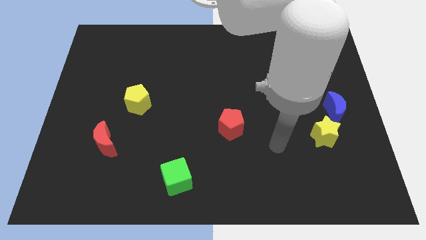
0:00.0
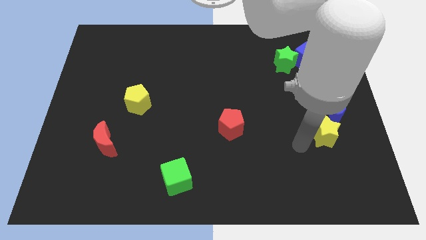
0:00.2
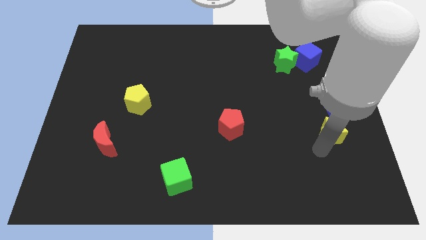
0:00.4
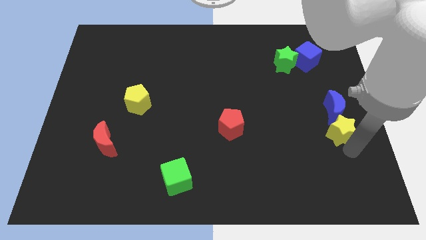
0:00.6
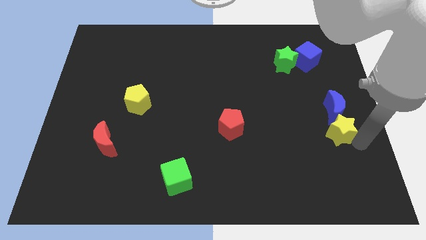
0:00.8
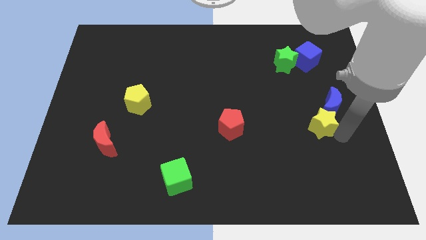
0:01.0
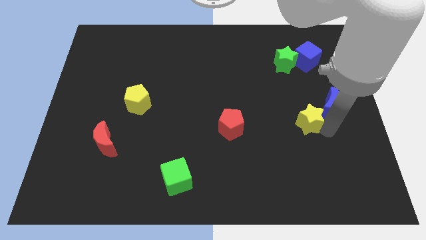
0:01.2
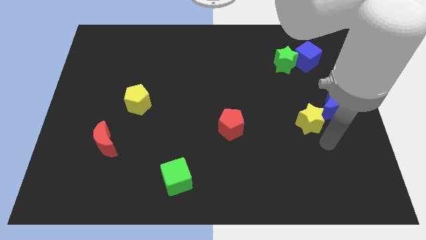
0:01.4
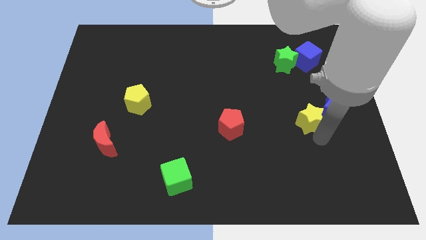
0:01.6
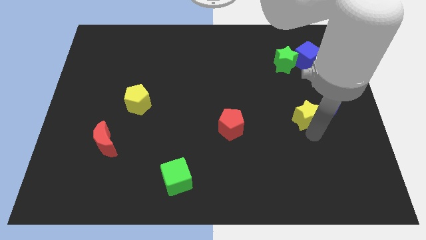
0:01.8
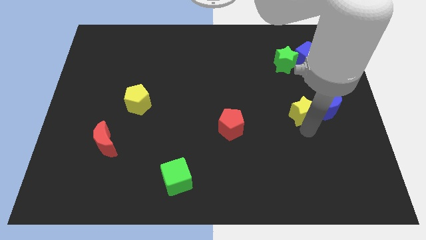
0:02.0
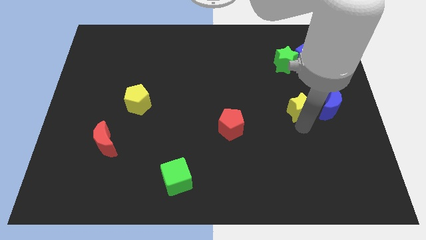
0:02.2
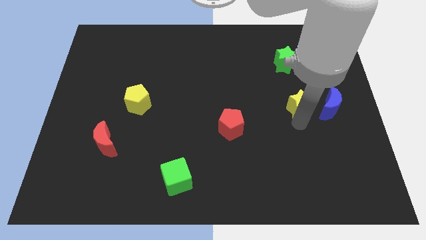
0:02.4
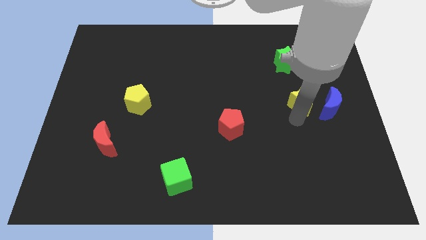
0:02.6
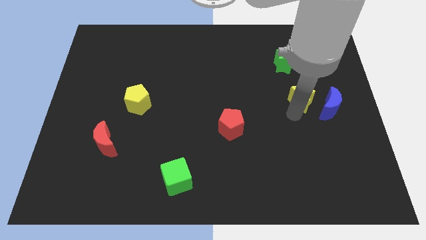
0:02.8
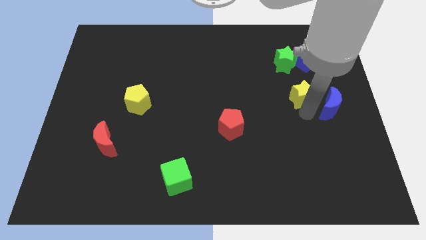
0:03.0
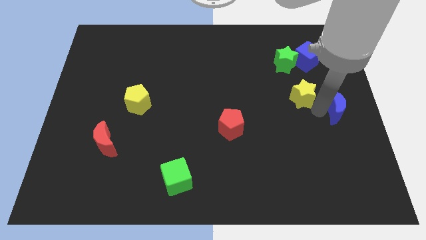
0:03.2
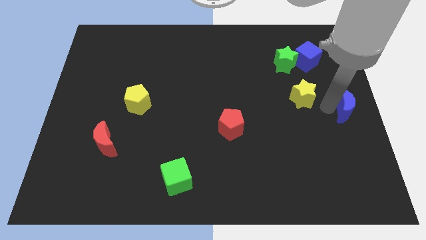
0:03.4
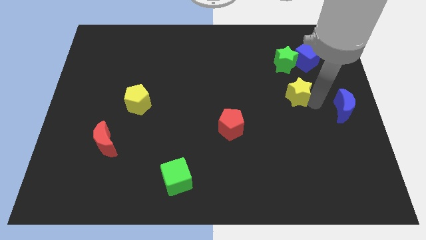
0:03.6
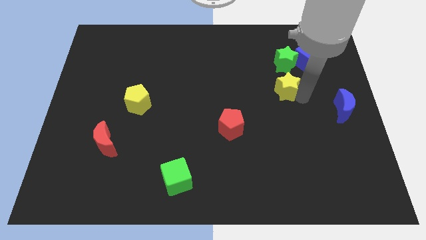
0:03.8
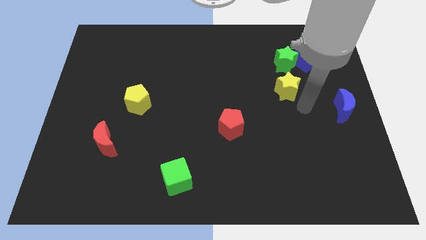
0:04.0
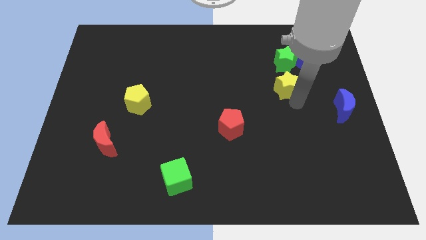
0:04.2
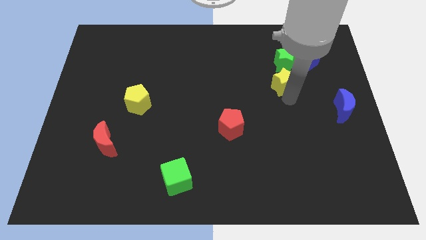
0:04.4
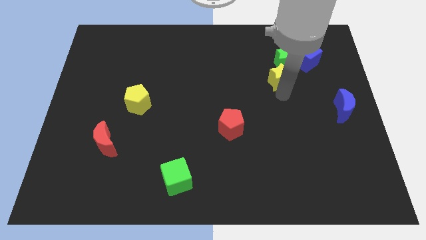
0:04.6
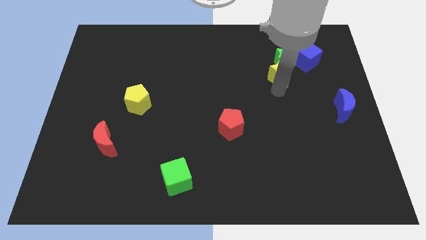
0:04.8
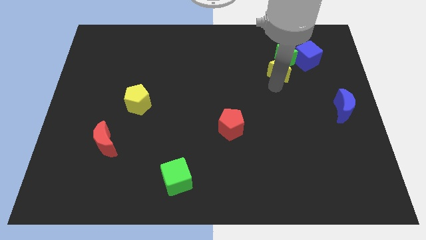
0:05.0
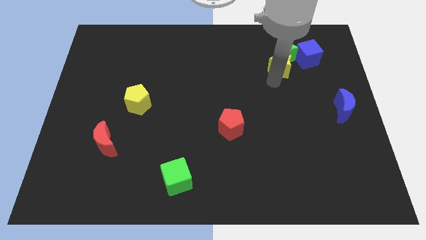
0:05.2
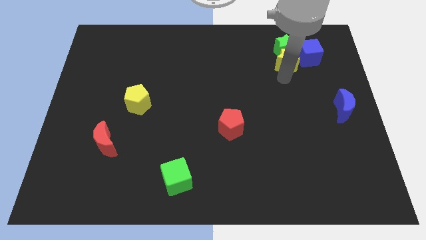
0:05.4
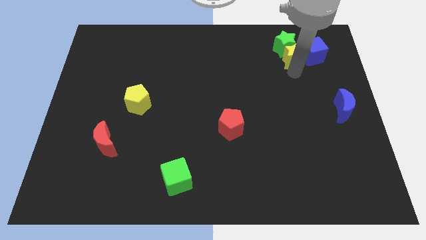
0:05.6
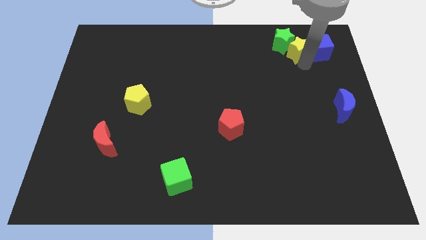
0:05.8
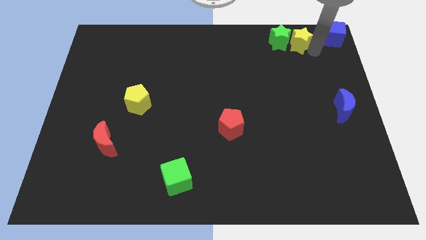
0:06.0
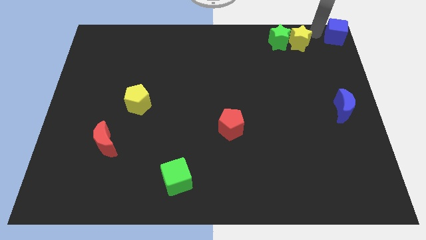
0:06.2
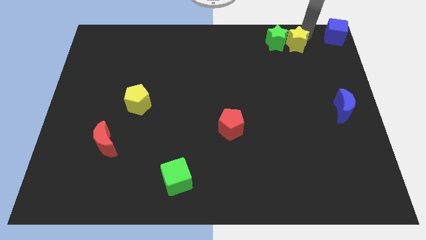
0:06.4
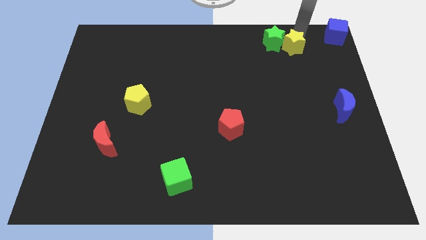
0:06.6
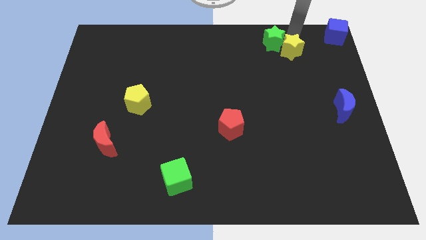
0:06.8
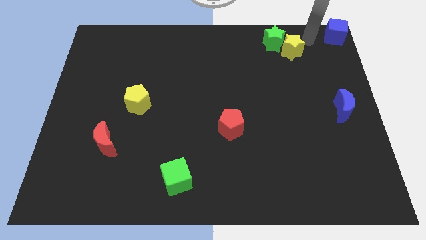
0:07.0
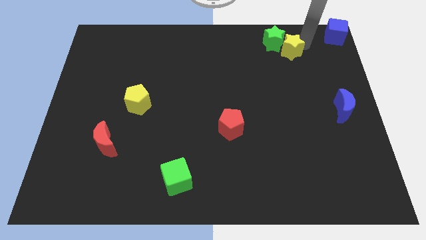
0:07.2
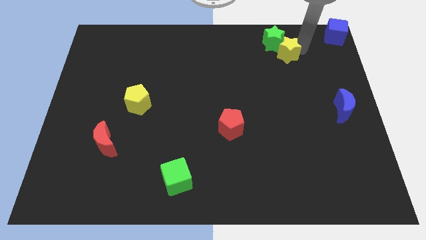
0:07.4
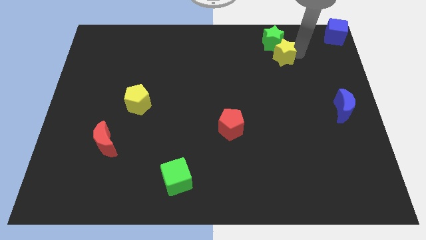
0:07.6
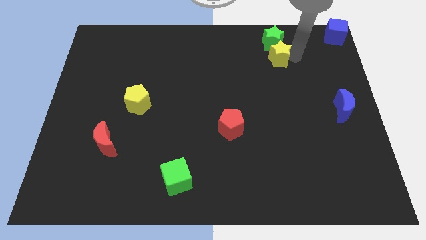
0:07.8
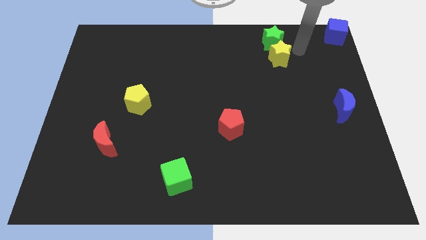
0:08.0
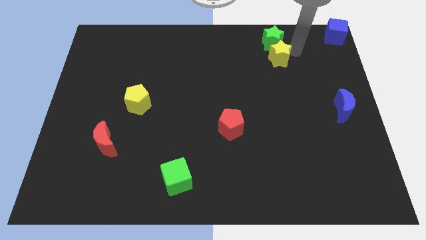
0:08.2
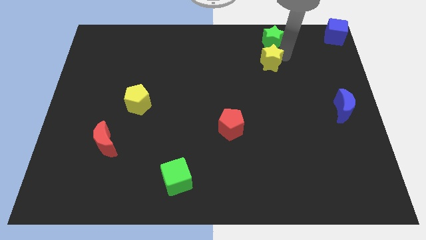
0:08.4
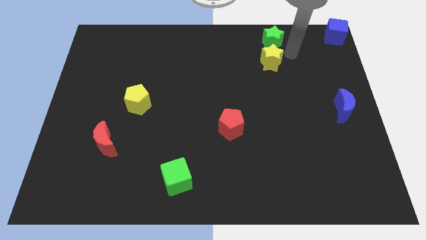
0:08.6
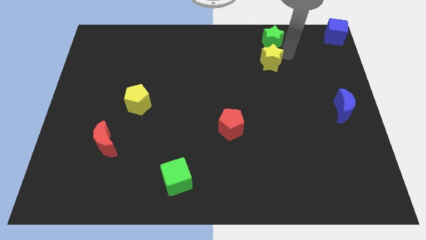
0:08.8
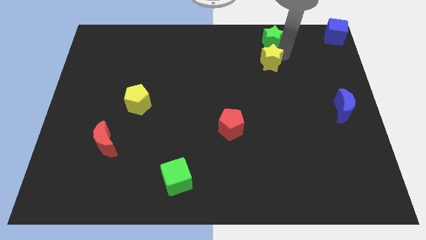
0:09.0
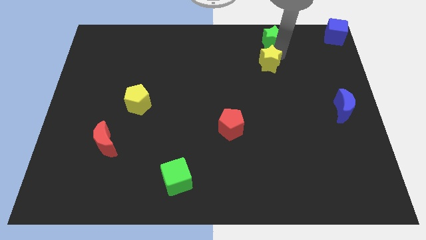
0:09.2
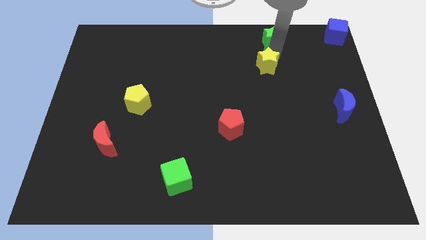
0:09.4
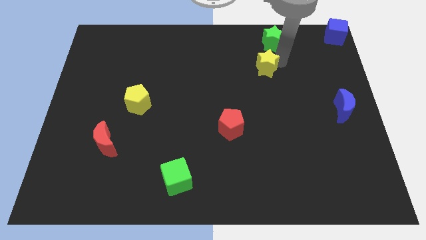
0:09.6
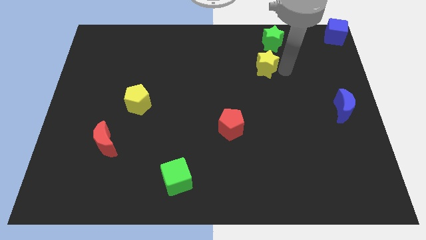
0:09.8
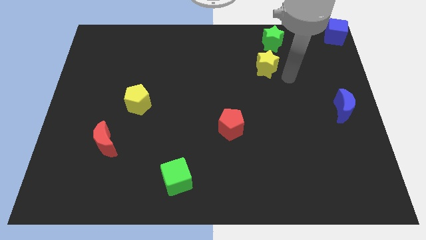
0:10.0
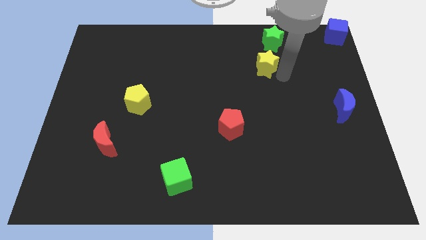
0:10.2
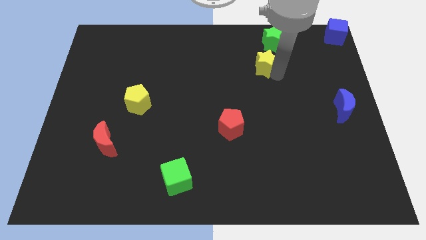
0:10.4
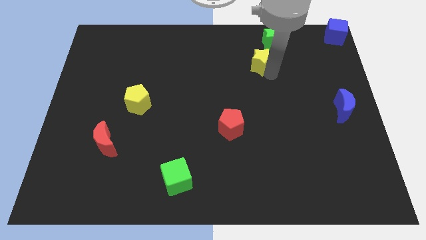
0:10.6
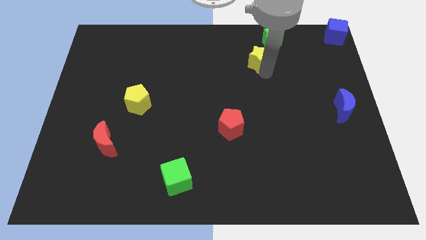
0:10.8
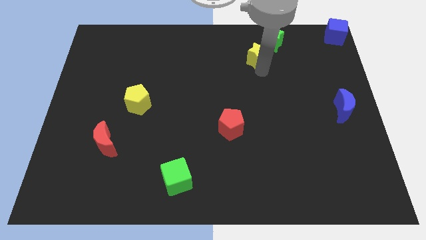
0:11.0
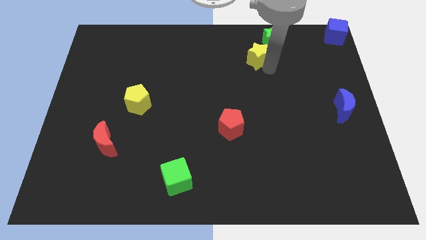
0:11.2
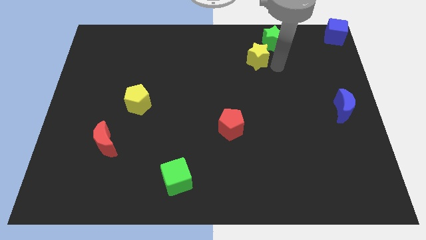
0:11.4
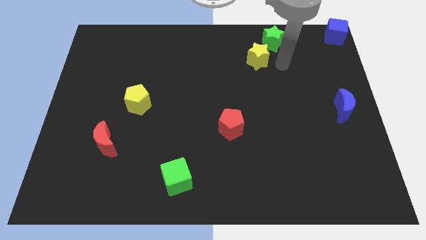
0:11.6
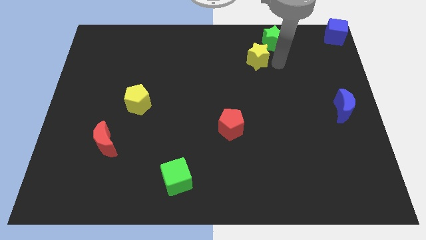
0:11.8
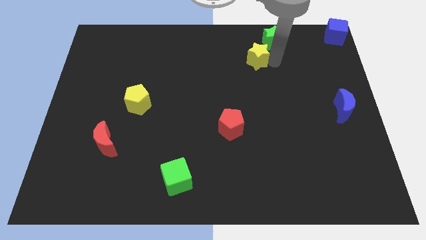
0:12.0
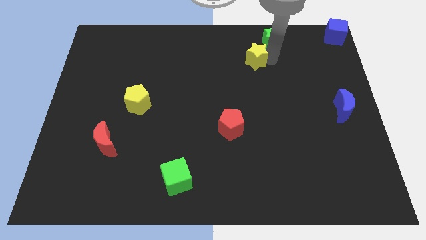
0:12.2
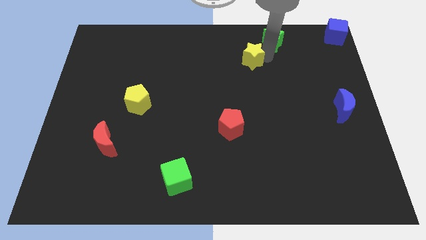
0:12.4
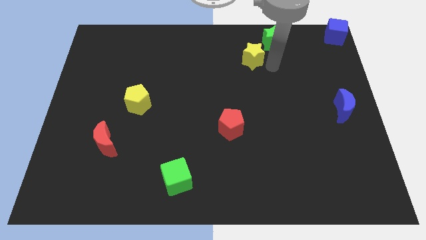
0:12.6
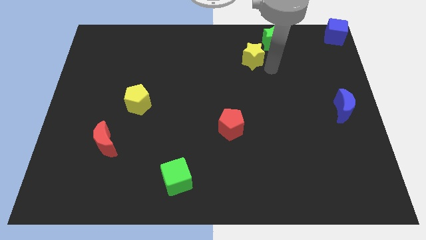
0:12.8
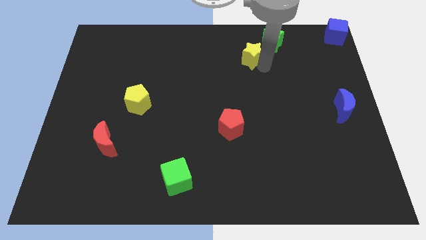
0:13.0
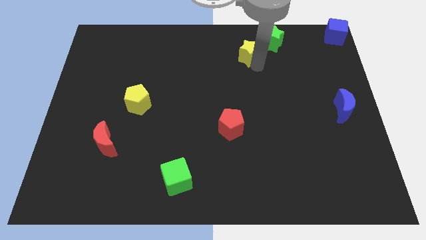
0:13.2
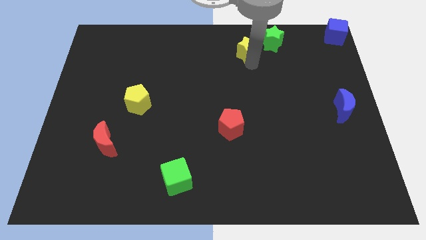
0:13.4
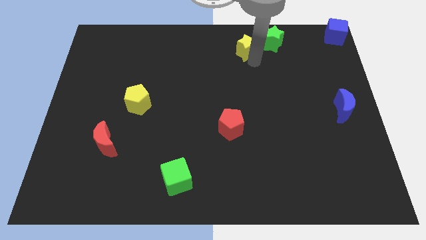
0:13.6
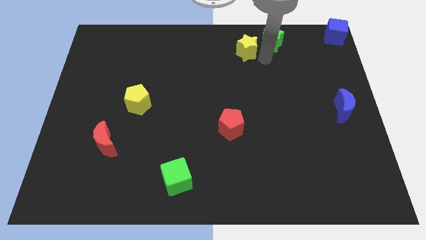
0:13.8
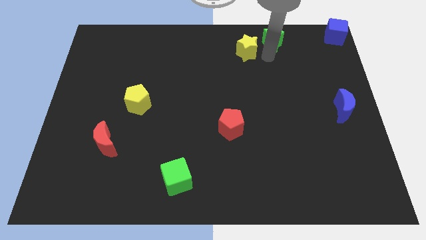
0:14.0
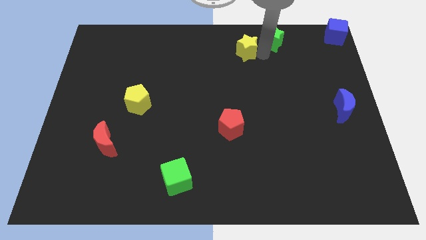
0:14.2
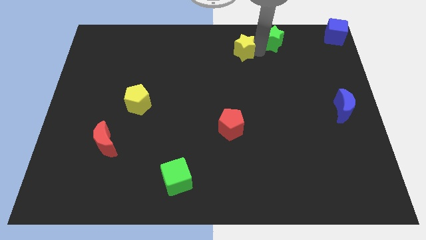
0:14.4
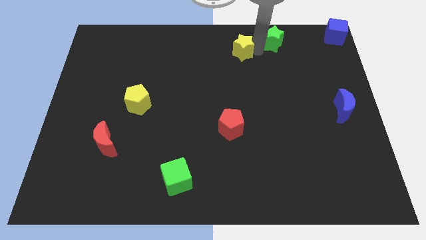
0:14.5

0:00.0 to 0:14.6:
slide the yellow star to the towards your base
